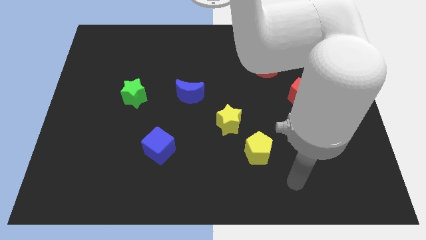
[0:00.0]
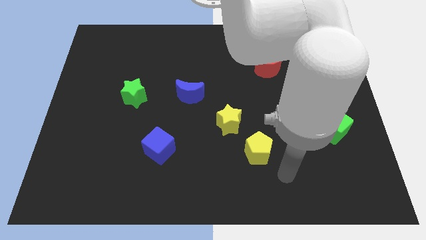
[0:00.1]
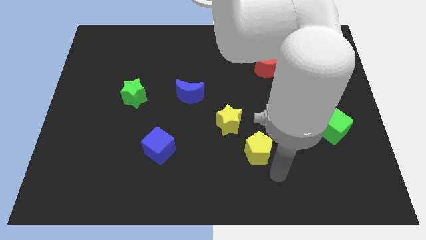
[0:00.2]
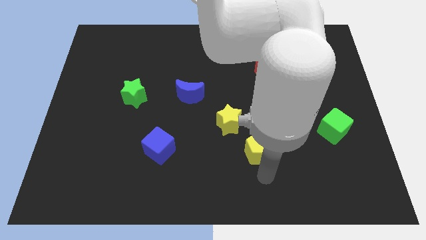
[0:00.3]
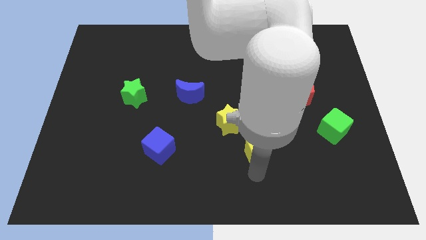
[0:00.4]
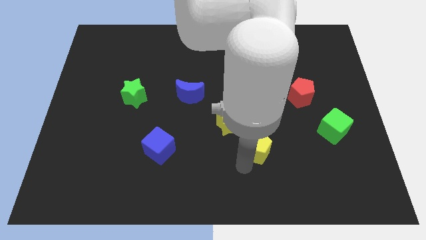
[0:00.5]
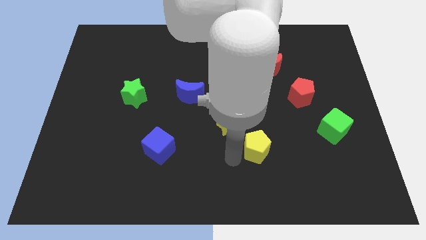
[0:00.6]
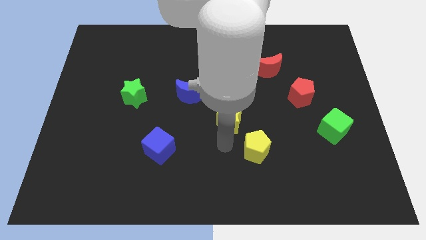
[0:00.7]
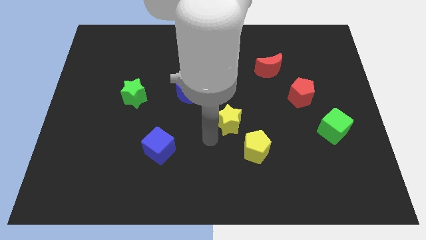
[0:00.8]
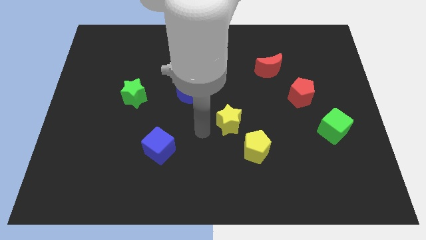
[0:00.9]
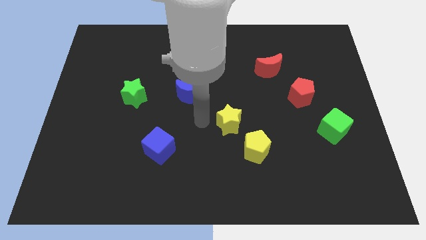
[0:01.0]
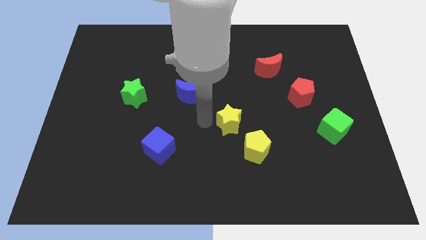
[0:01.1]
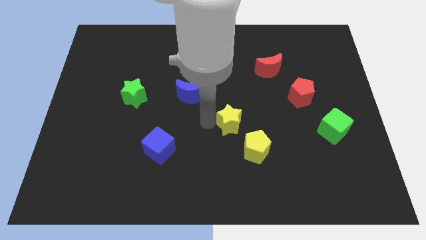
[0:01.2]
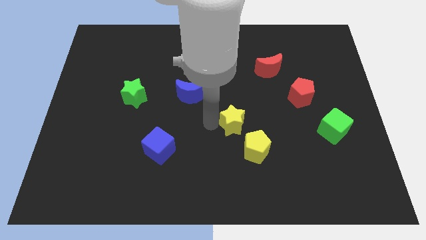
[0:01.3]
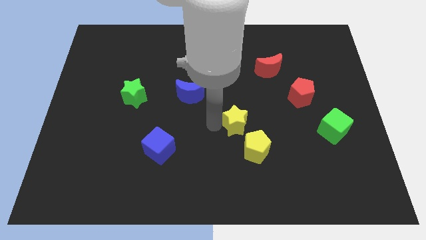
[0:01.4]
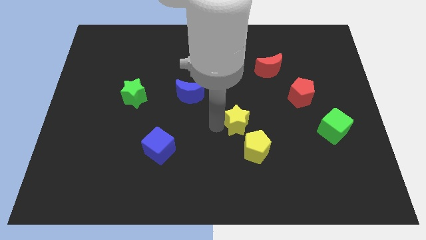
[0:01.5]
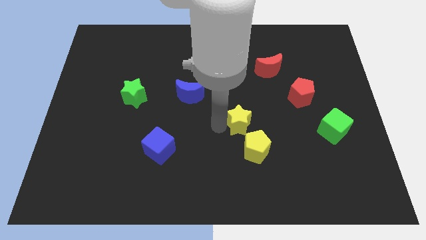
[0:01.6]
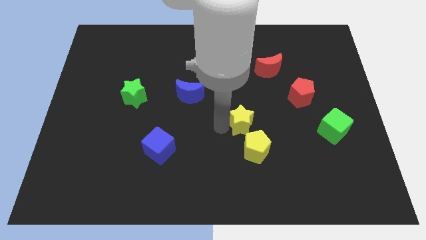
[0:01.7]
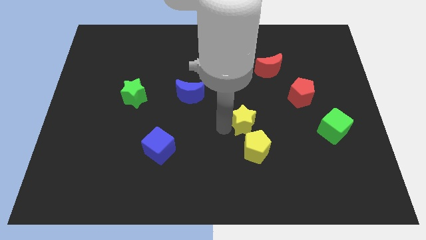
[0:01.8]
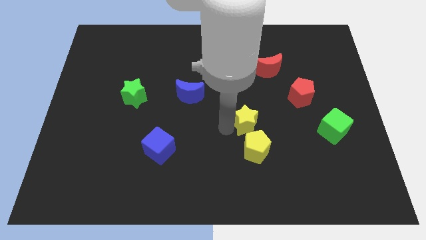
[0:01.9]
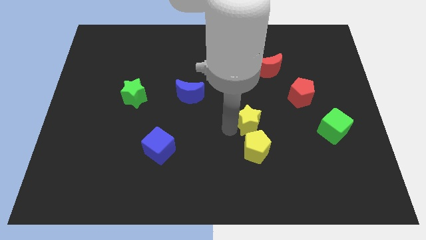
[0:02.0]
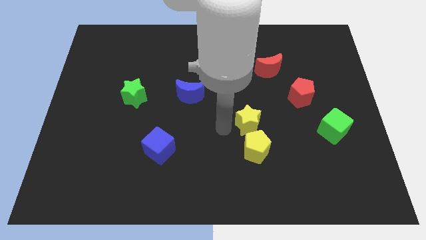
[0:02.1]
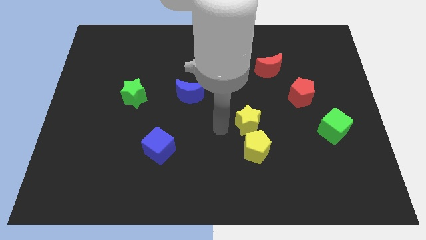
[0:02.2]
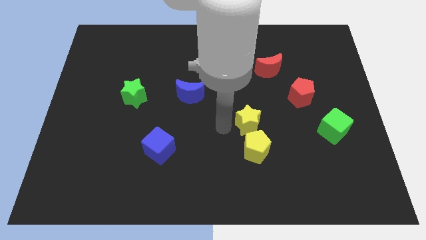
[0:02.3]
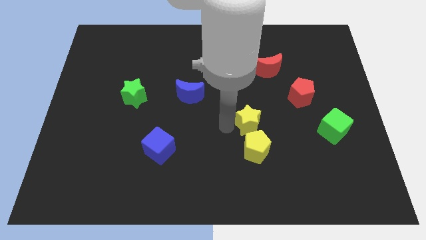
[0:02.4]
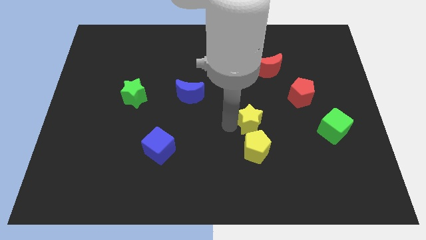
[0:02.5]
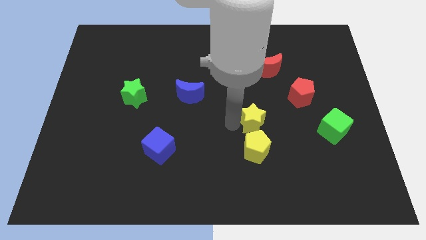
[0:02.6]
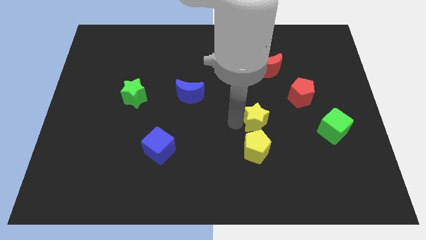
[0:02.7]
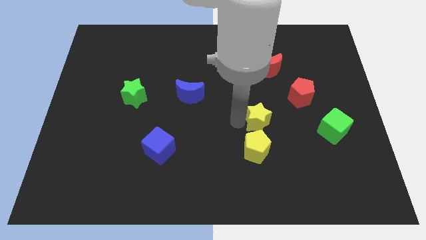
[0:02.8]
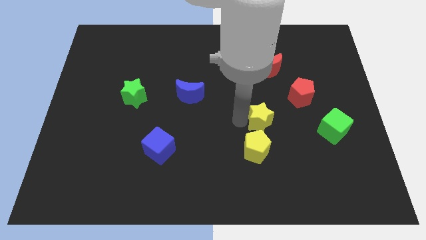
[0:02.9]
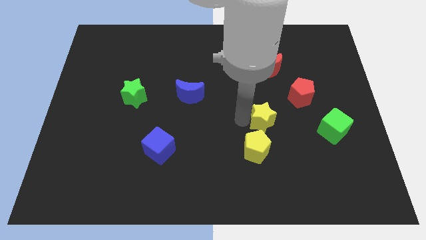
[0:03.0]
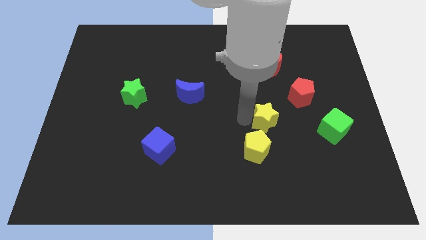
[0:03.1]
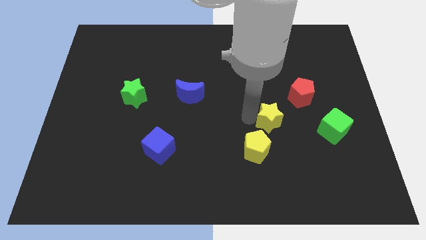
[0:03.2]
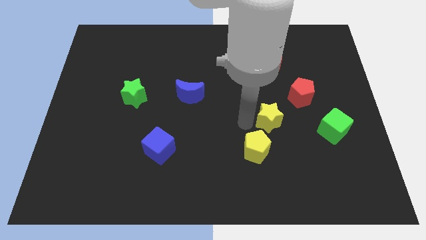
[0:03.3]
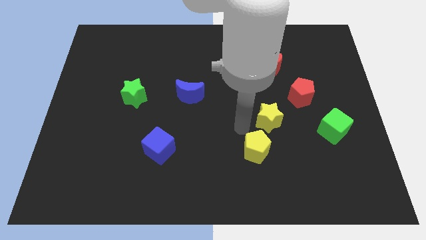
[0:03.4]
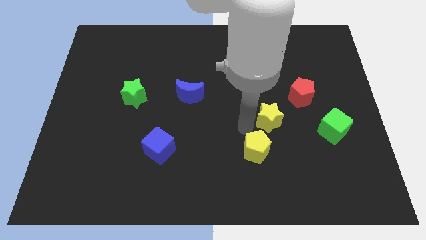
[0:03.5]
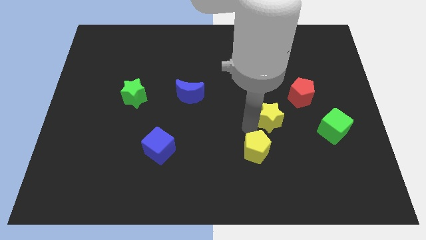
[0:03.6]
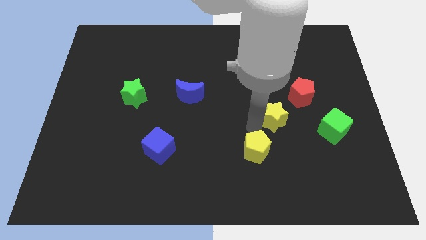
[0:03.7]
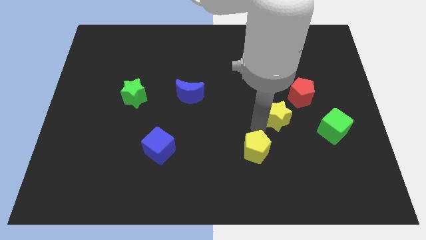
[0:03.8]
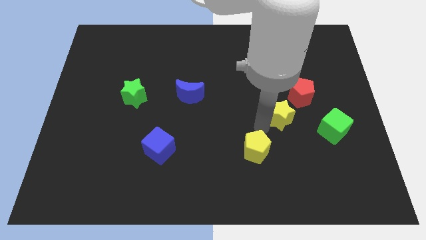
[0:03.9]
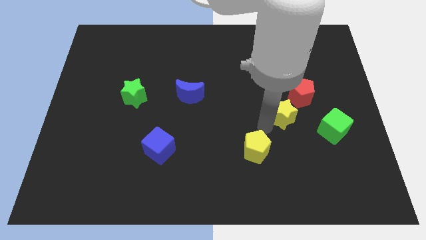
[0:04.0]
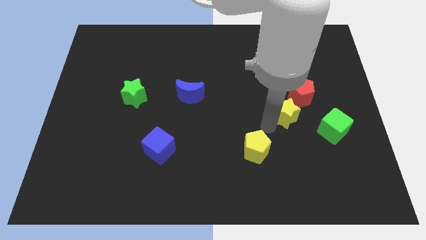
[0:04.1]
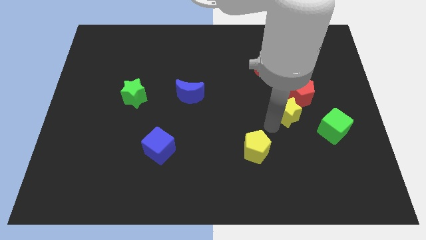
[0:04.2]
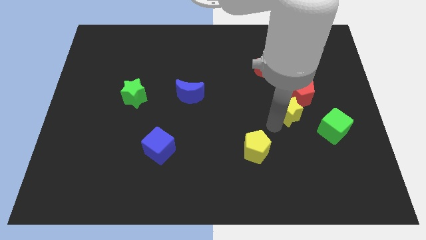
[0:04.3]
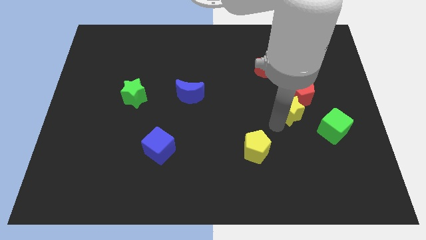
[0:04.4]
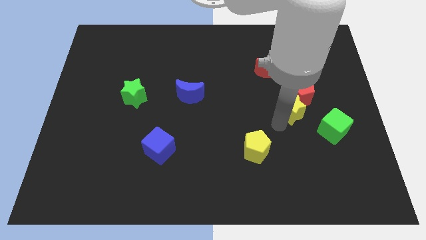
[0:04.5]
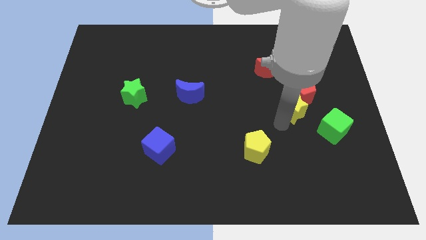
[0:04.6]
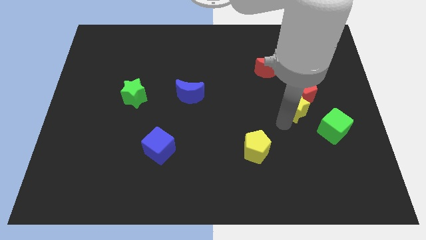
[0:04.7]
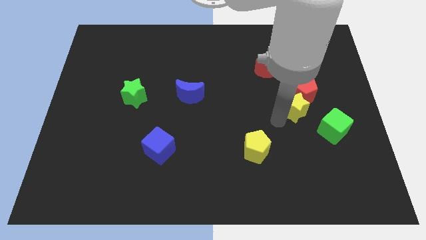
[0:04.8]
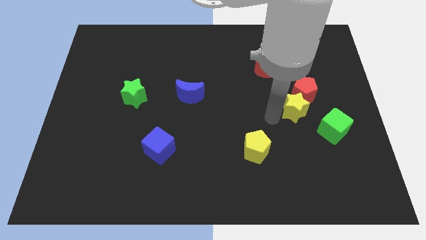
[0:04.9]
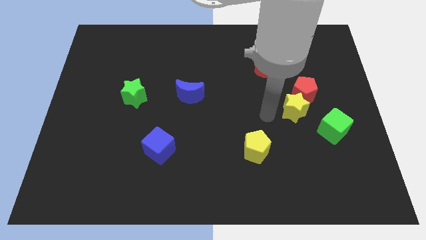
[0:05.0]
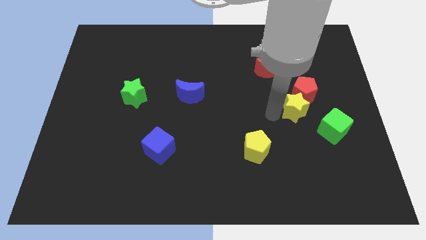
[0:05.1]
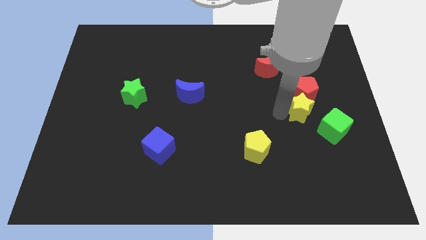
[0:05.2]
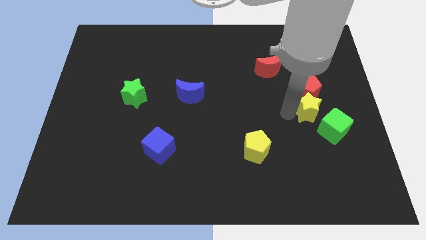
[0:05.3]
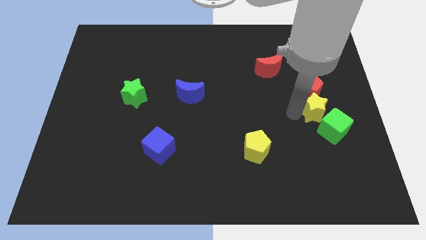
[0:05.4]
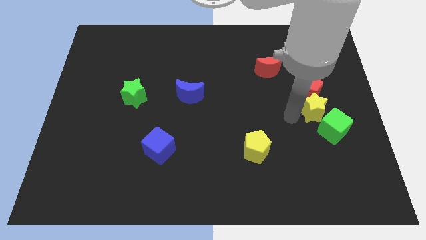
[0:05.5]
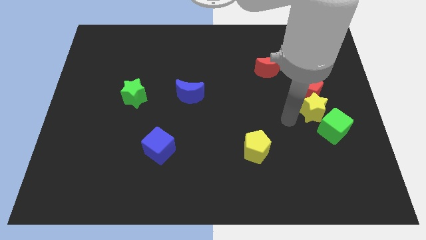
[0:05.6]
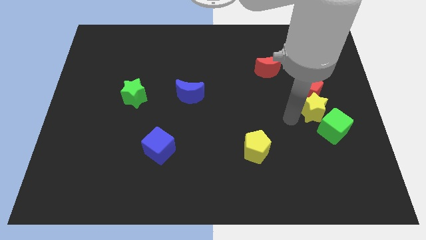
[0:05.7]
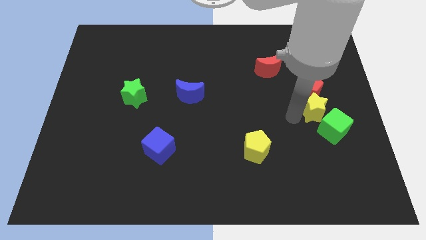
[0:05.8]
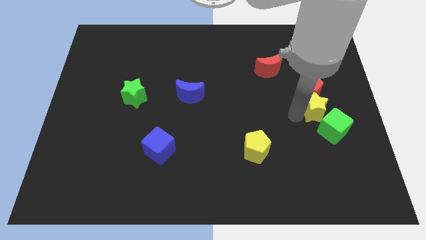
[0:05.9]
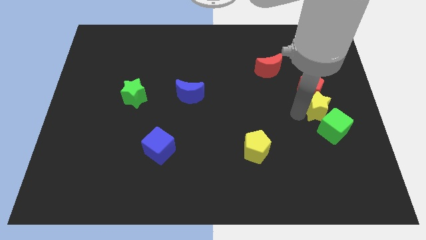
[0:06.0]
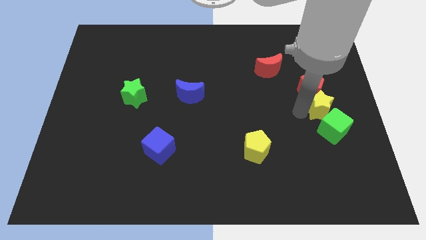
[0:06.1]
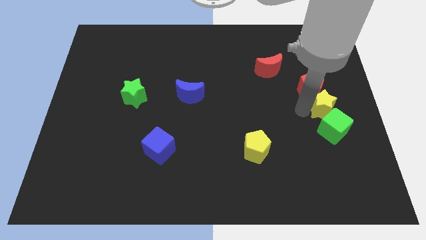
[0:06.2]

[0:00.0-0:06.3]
move the yellow star to the right side
